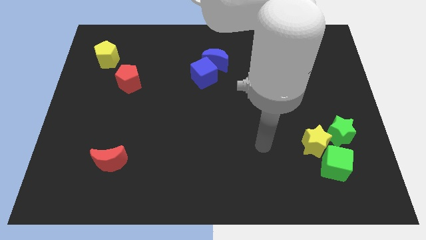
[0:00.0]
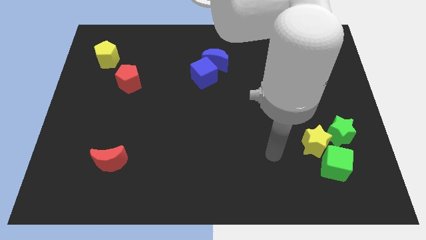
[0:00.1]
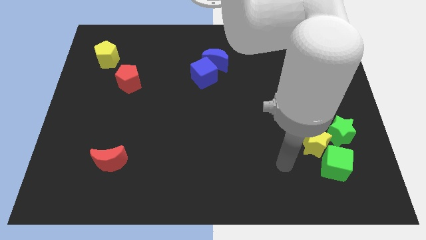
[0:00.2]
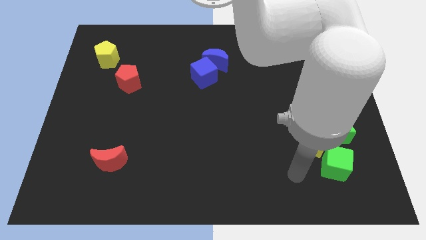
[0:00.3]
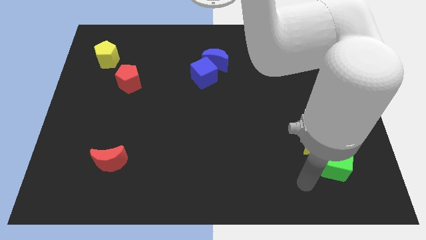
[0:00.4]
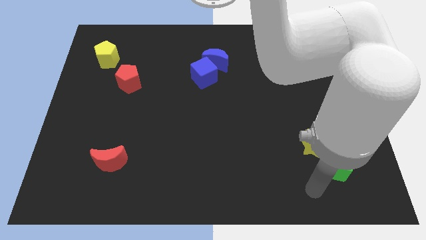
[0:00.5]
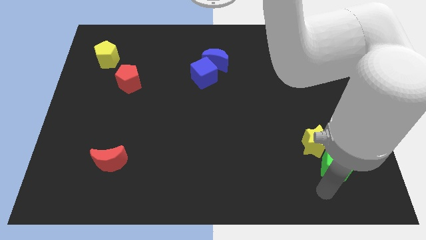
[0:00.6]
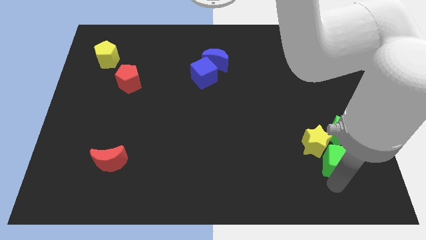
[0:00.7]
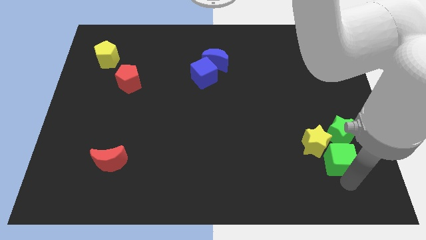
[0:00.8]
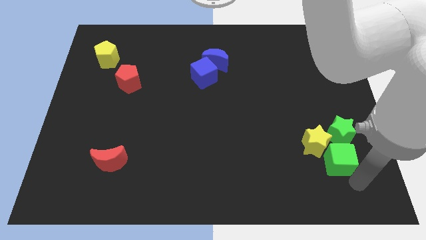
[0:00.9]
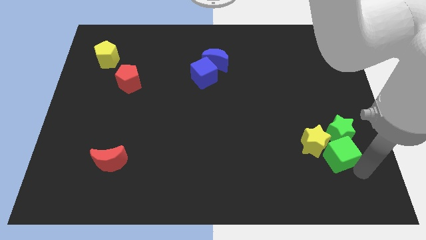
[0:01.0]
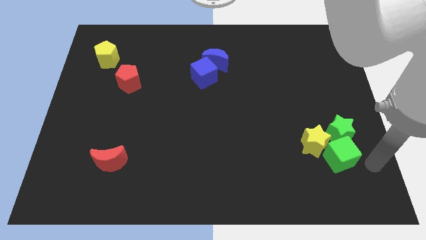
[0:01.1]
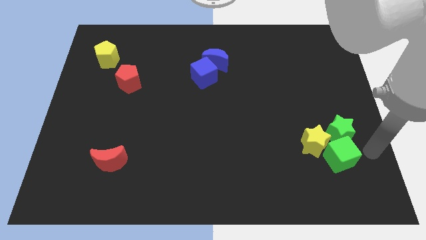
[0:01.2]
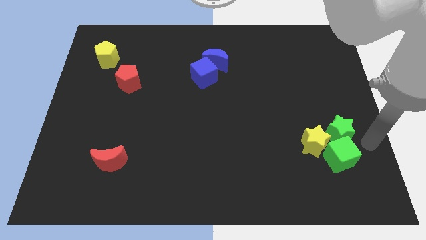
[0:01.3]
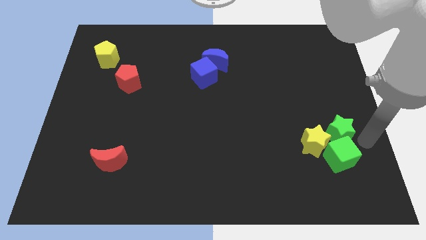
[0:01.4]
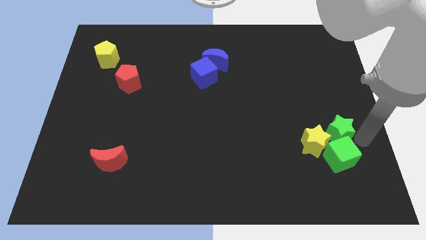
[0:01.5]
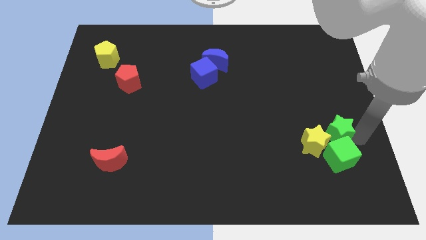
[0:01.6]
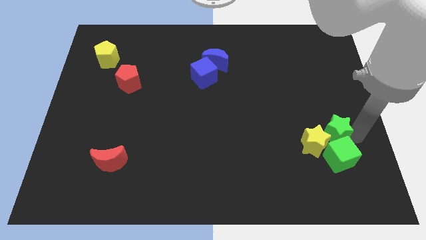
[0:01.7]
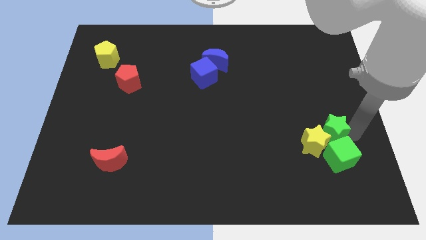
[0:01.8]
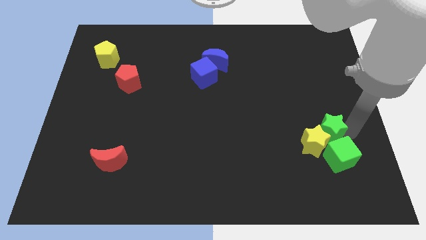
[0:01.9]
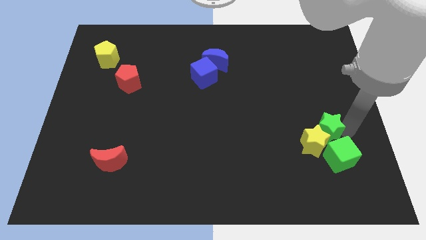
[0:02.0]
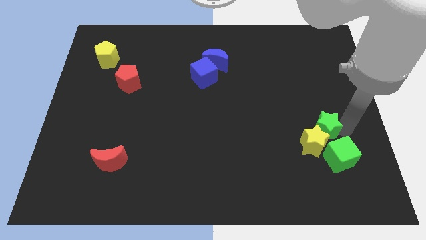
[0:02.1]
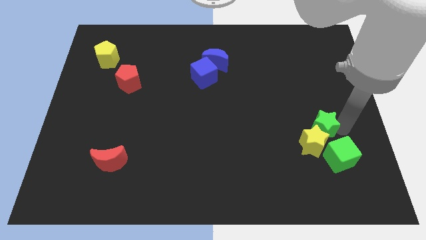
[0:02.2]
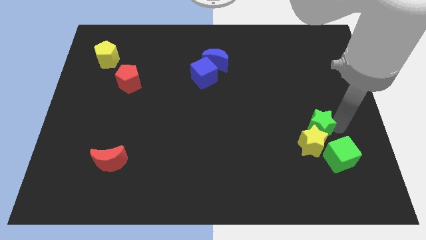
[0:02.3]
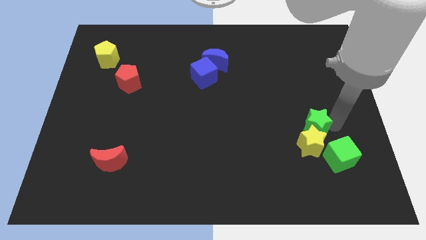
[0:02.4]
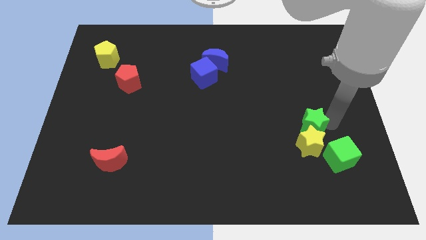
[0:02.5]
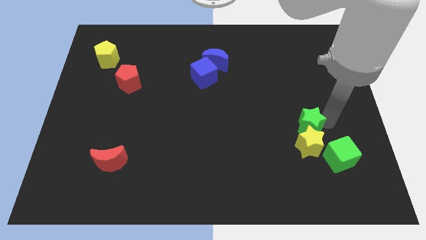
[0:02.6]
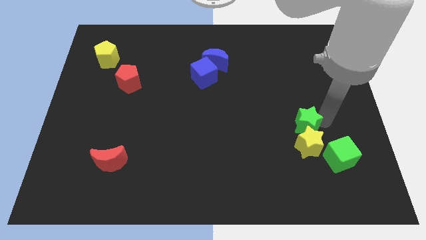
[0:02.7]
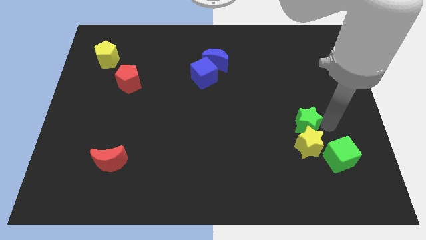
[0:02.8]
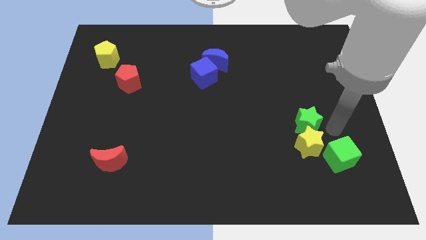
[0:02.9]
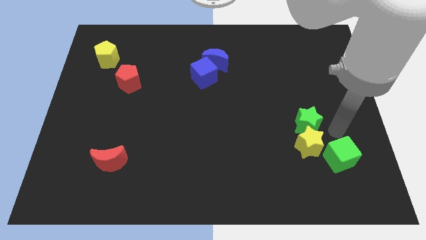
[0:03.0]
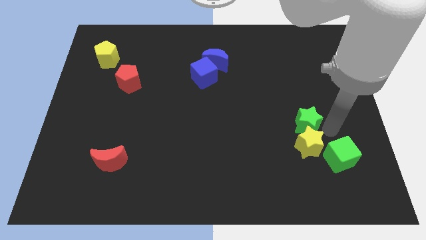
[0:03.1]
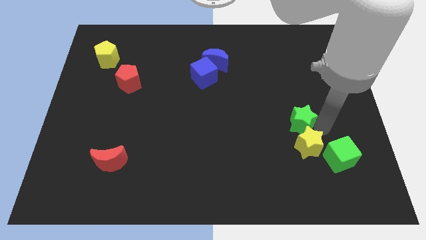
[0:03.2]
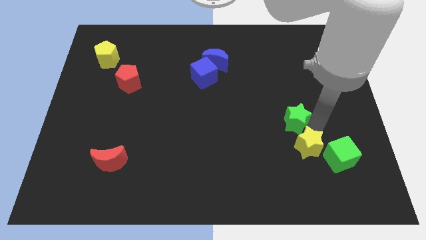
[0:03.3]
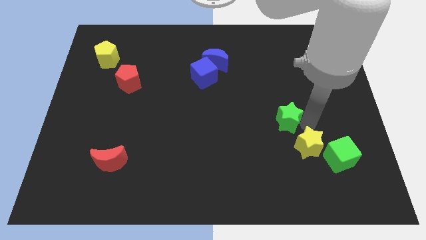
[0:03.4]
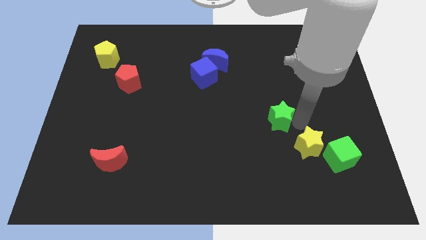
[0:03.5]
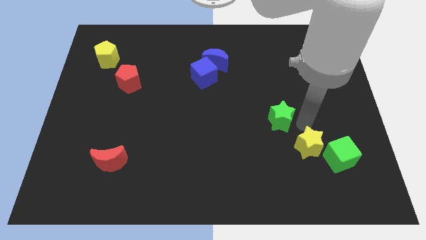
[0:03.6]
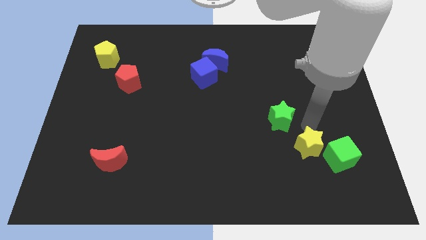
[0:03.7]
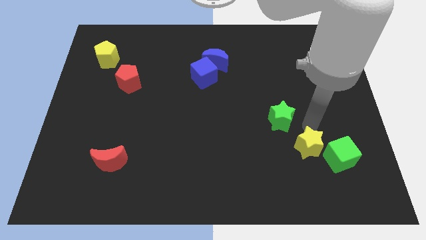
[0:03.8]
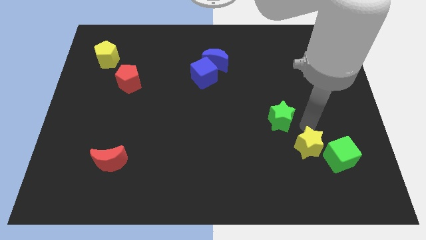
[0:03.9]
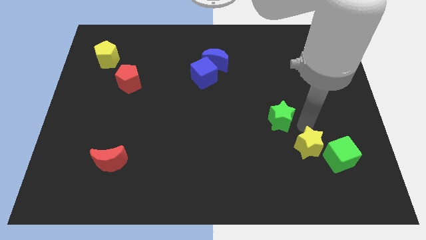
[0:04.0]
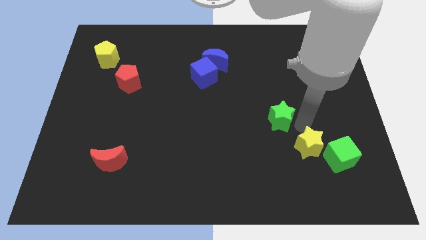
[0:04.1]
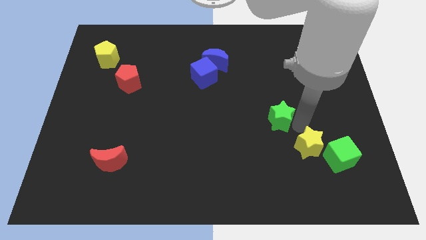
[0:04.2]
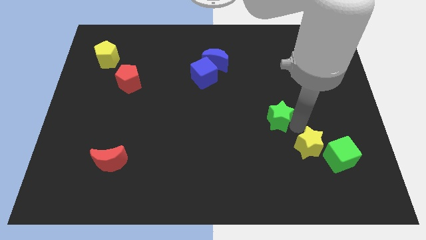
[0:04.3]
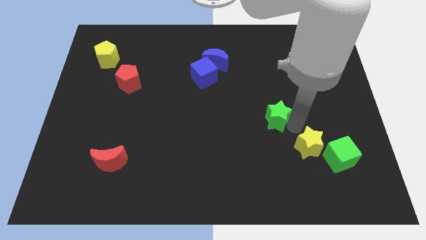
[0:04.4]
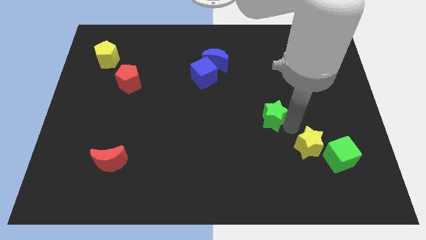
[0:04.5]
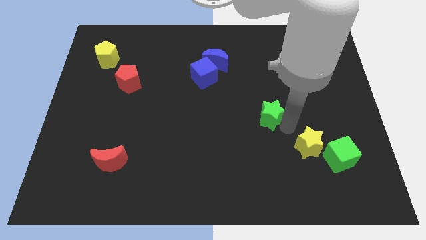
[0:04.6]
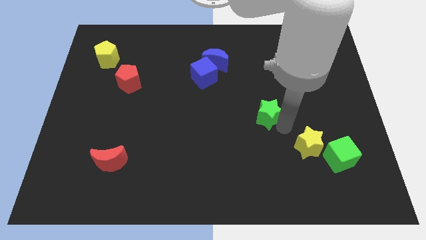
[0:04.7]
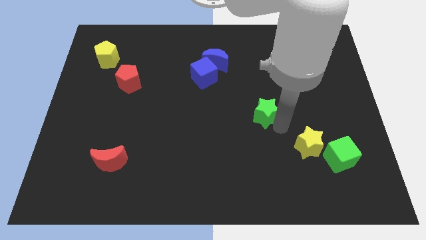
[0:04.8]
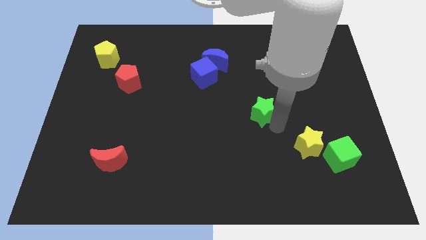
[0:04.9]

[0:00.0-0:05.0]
push the green star to the center

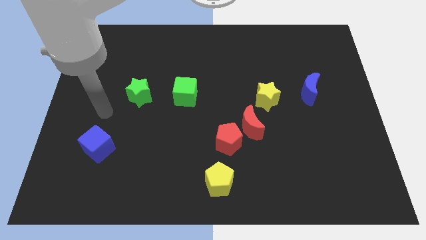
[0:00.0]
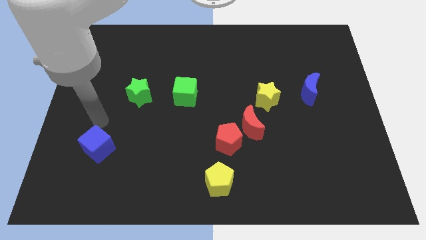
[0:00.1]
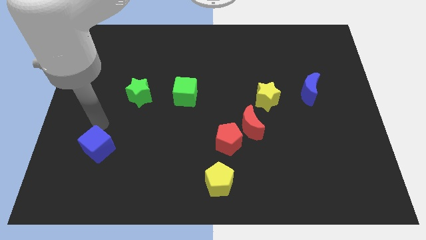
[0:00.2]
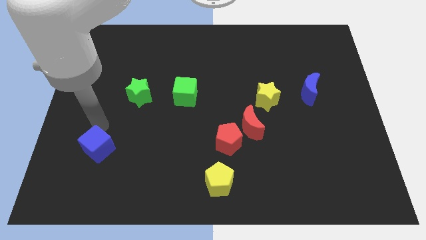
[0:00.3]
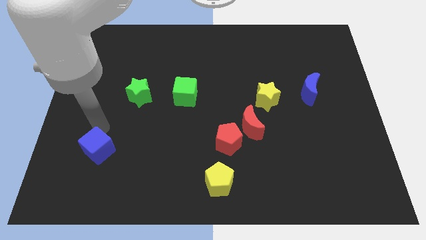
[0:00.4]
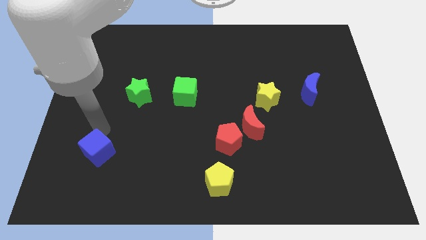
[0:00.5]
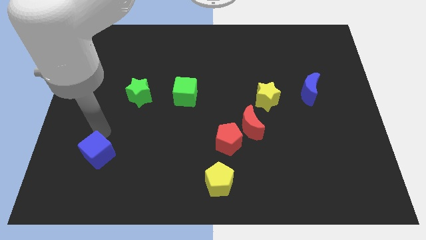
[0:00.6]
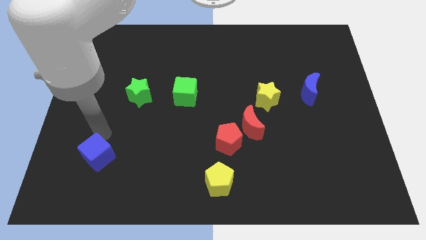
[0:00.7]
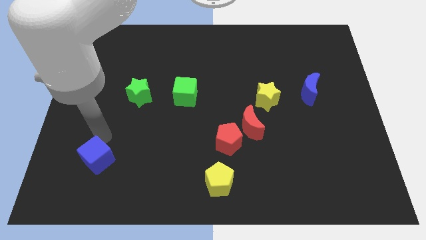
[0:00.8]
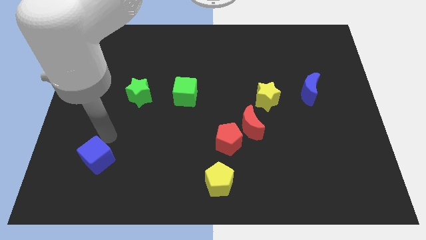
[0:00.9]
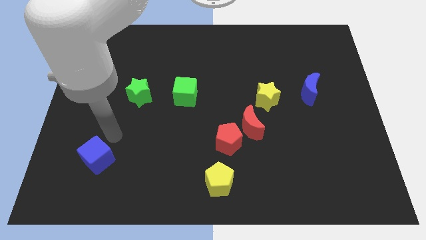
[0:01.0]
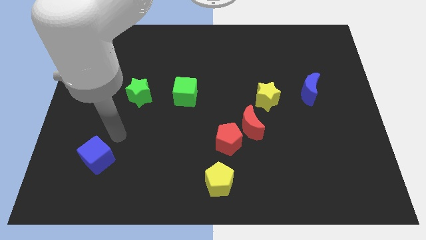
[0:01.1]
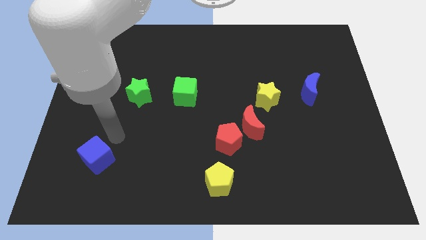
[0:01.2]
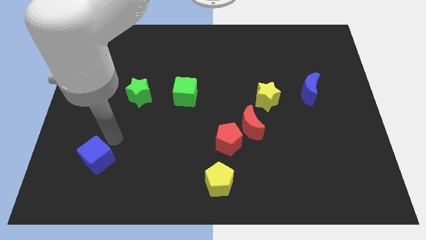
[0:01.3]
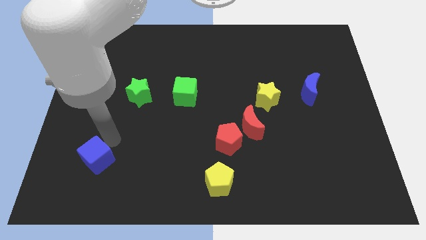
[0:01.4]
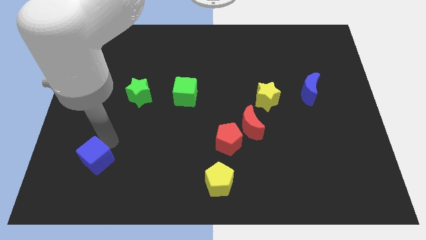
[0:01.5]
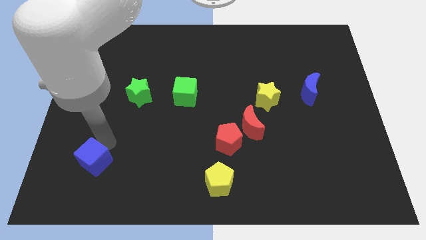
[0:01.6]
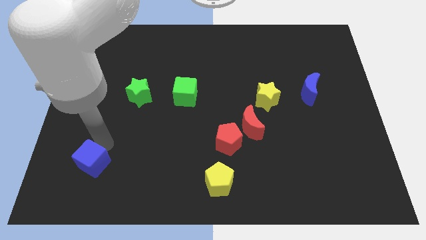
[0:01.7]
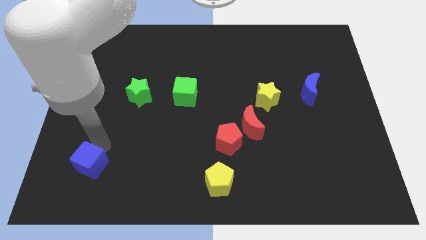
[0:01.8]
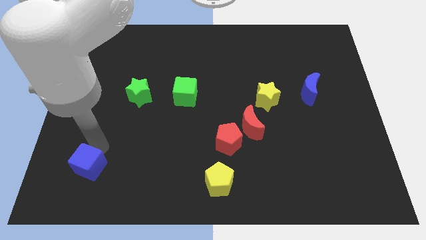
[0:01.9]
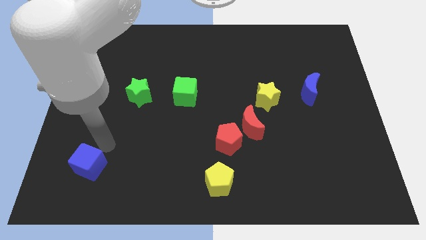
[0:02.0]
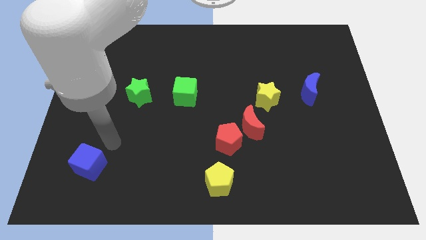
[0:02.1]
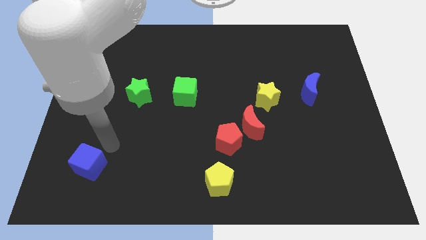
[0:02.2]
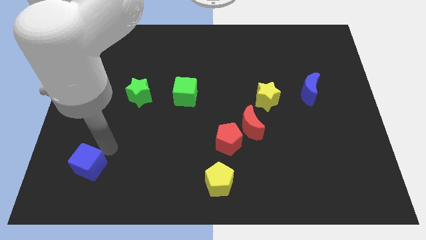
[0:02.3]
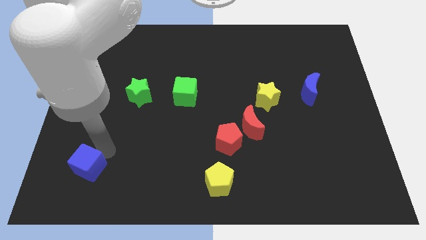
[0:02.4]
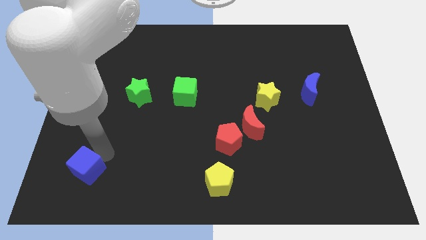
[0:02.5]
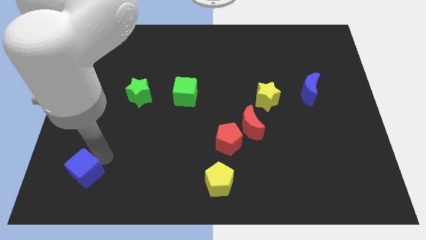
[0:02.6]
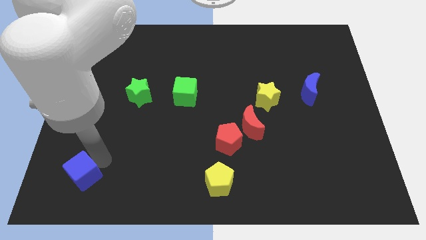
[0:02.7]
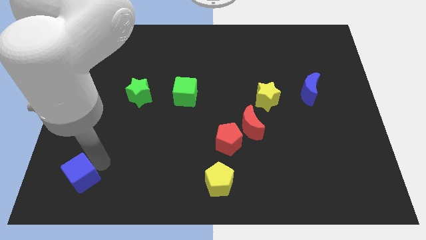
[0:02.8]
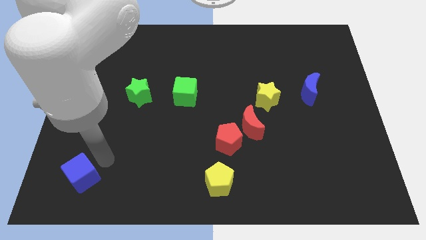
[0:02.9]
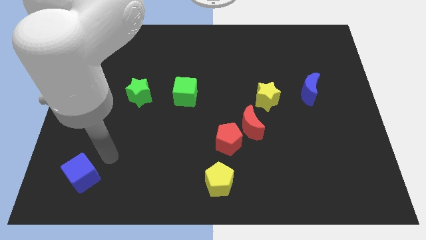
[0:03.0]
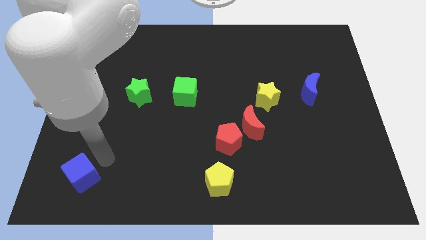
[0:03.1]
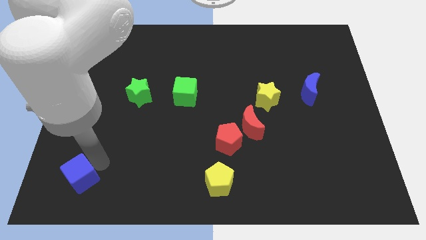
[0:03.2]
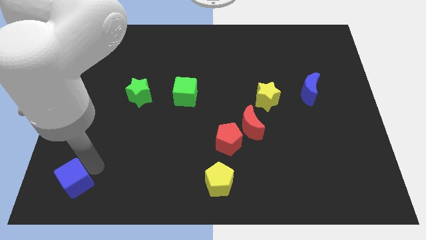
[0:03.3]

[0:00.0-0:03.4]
push the blue cube to the bottom left
